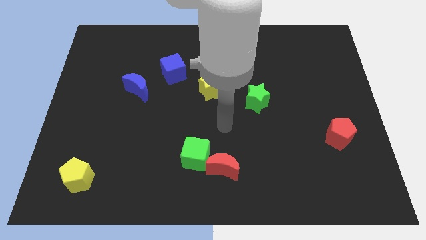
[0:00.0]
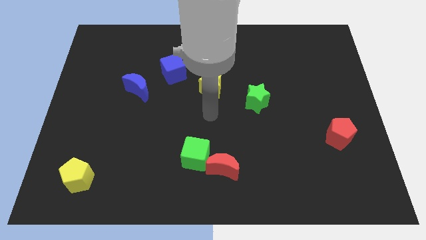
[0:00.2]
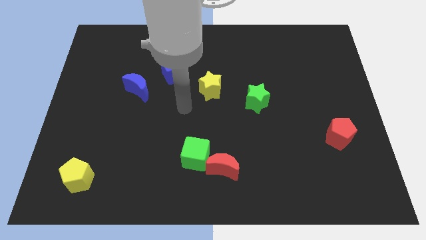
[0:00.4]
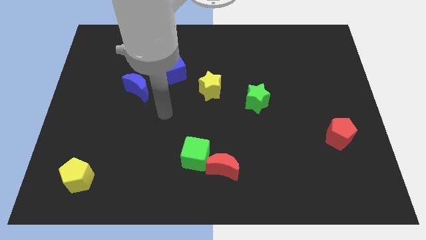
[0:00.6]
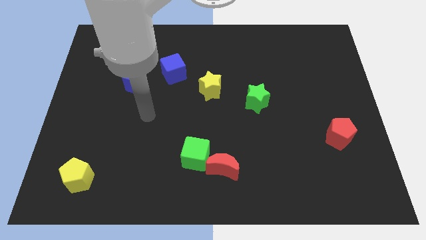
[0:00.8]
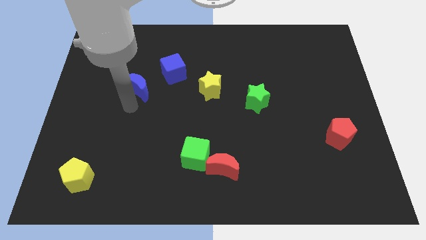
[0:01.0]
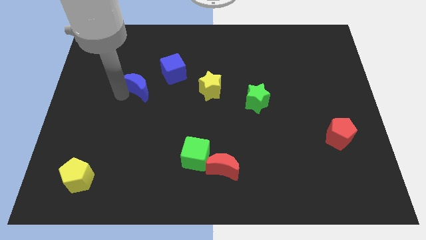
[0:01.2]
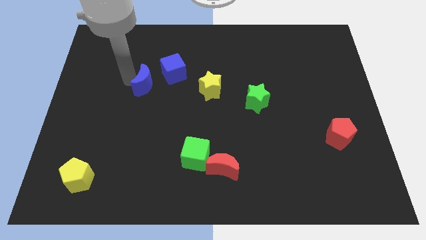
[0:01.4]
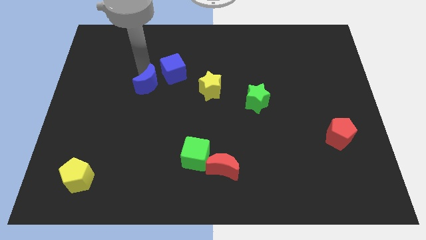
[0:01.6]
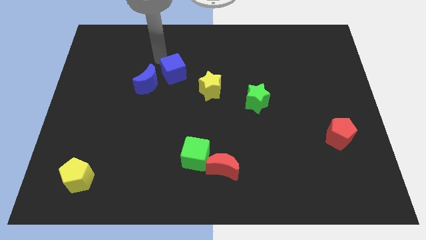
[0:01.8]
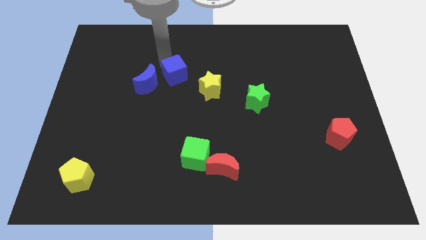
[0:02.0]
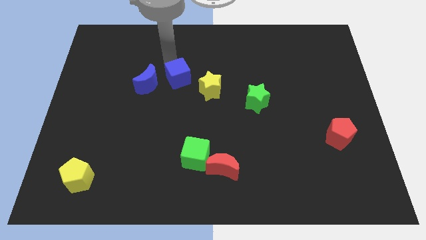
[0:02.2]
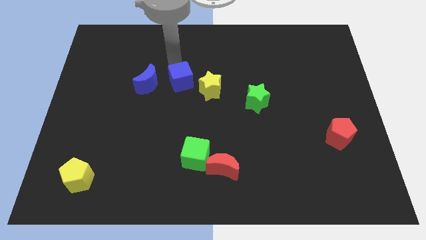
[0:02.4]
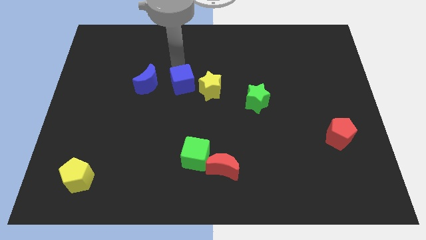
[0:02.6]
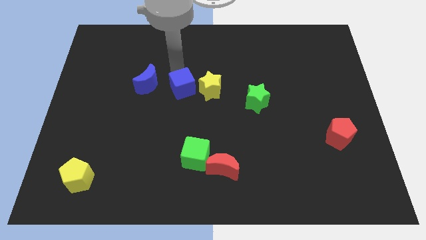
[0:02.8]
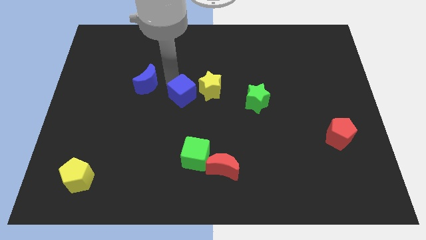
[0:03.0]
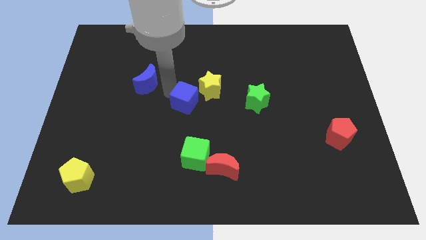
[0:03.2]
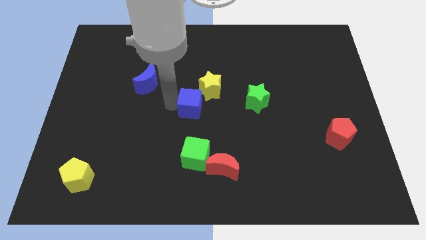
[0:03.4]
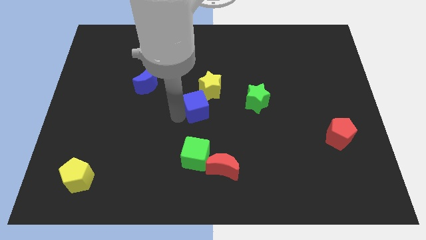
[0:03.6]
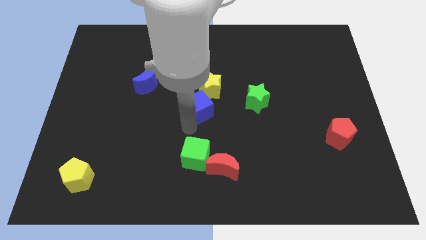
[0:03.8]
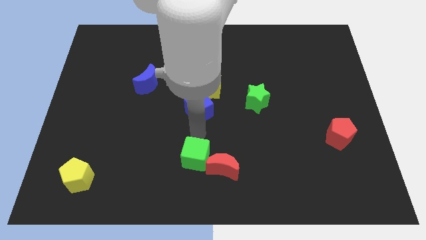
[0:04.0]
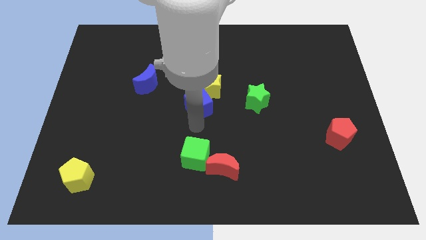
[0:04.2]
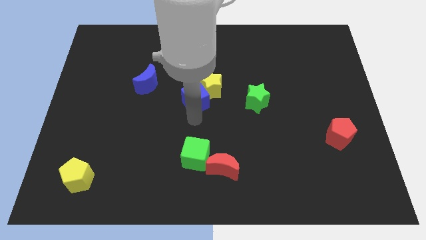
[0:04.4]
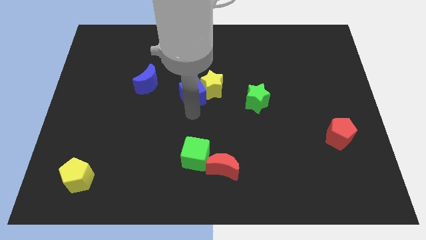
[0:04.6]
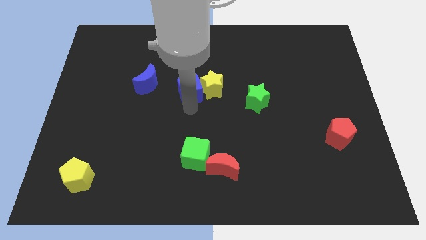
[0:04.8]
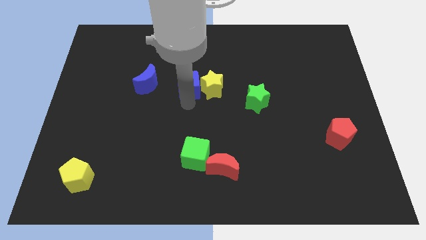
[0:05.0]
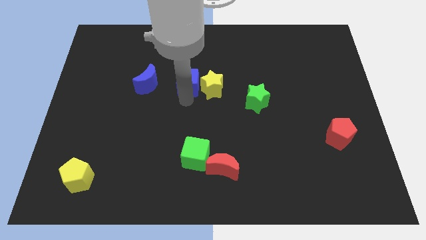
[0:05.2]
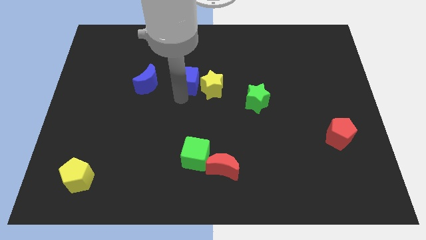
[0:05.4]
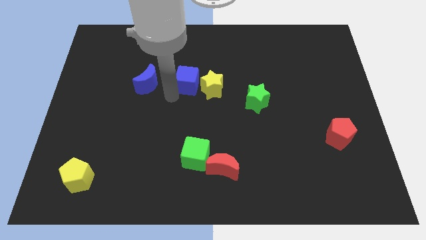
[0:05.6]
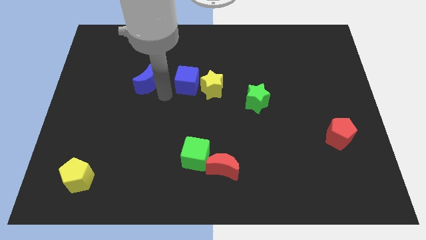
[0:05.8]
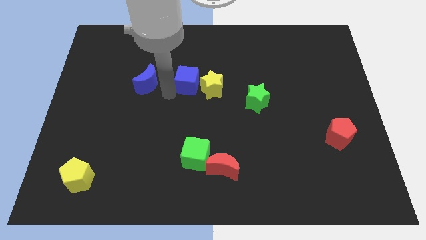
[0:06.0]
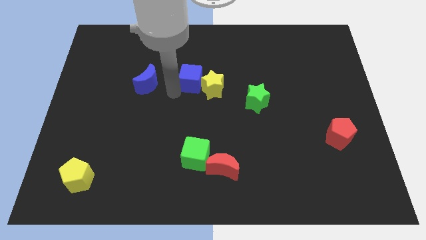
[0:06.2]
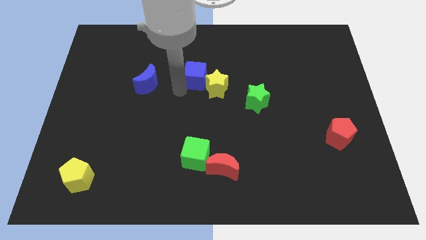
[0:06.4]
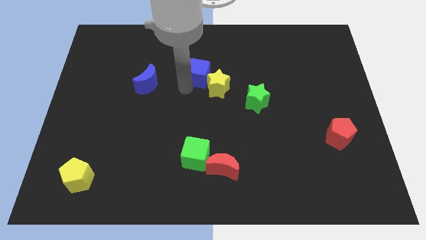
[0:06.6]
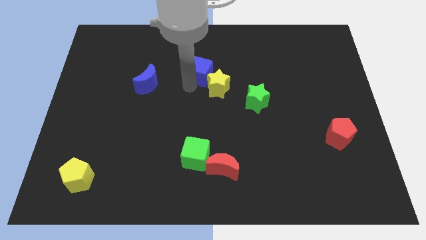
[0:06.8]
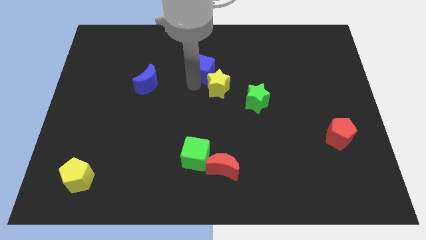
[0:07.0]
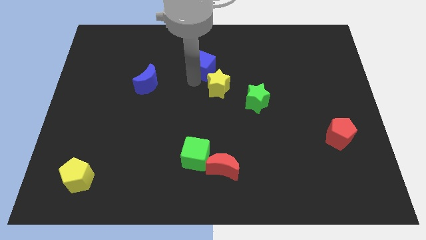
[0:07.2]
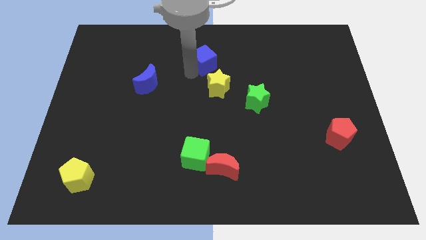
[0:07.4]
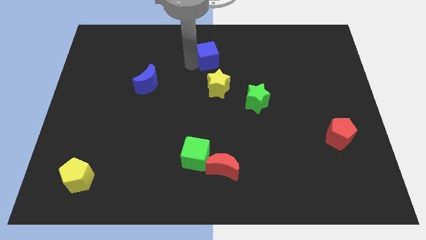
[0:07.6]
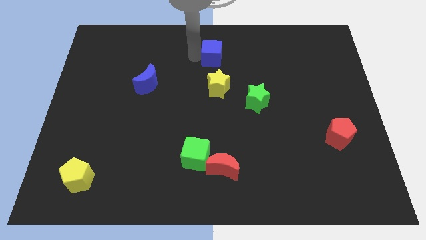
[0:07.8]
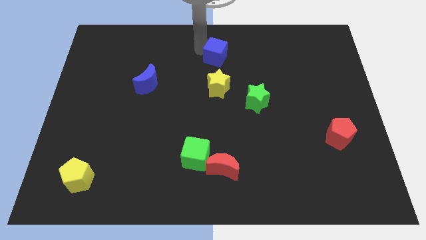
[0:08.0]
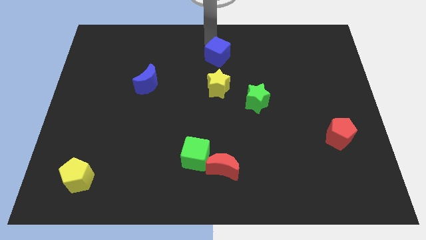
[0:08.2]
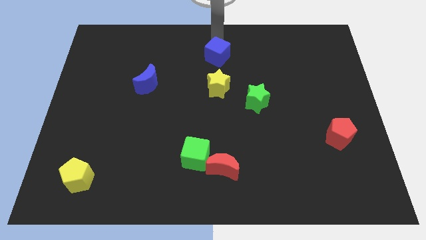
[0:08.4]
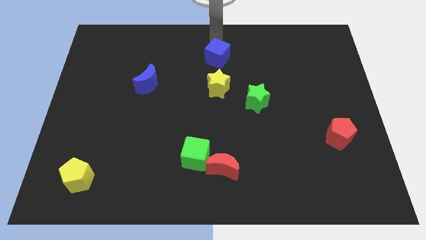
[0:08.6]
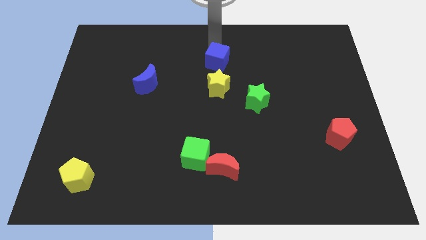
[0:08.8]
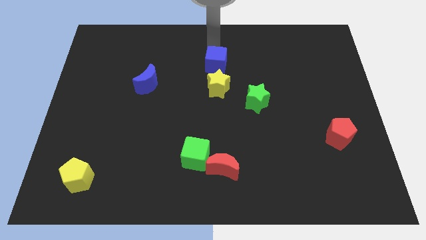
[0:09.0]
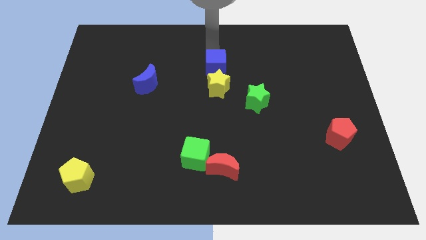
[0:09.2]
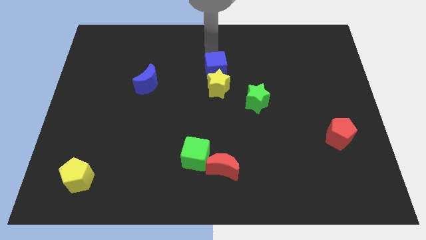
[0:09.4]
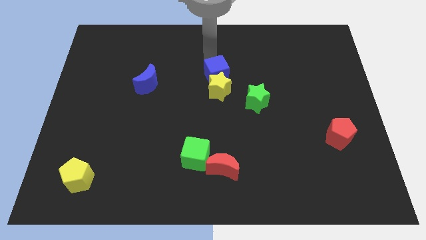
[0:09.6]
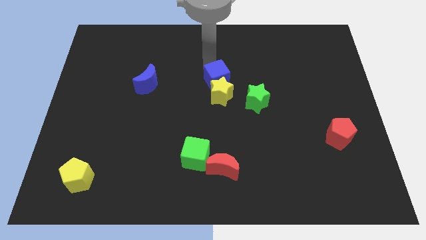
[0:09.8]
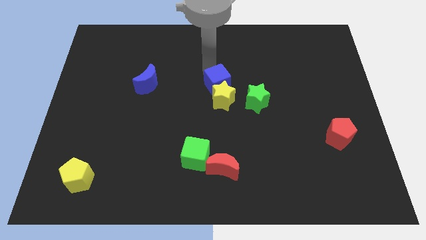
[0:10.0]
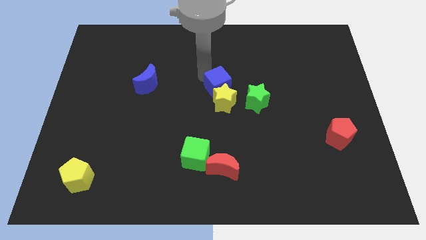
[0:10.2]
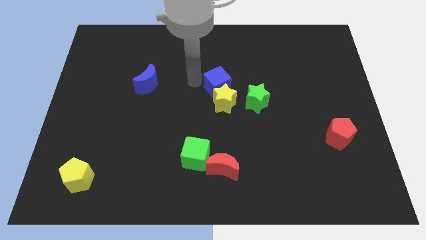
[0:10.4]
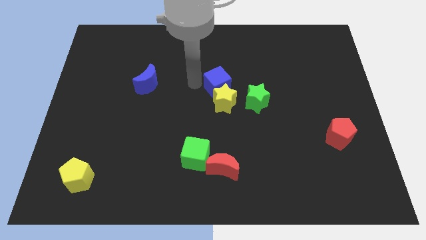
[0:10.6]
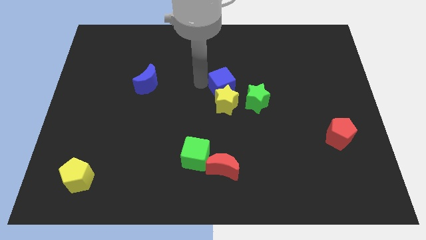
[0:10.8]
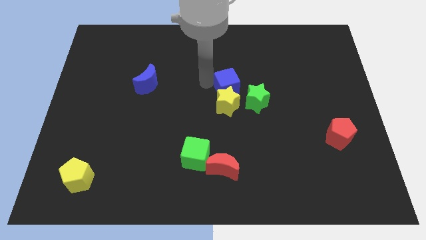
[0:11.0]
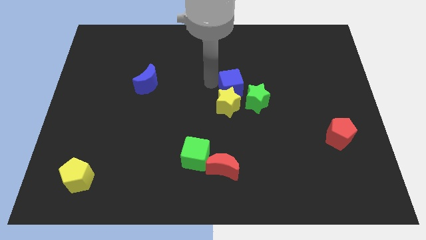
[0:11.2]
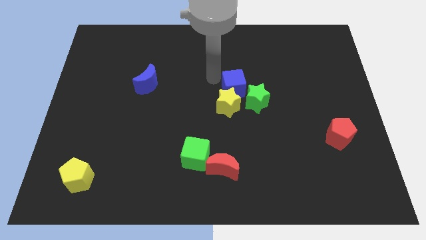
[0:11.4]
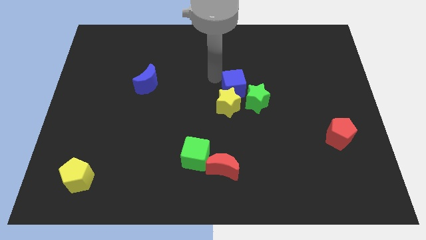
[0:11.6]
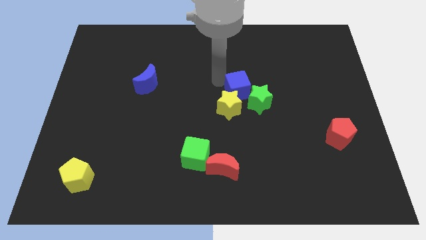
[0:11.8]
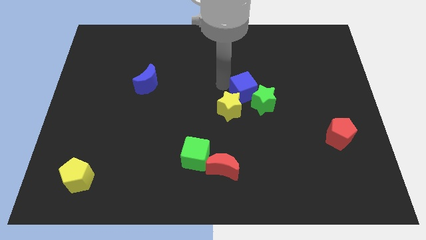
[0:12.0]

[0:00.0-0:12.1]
put the blue cube close to the green star
